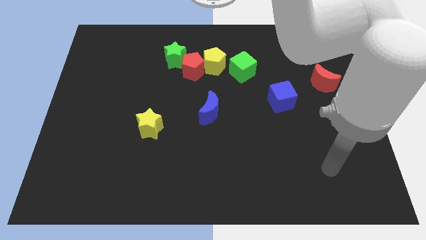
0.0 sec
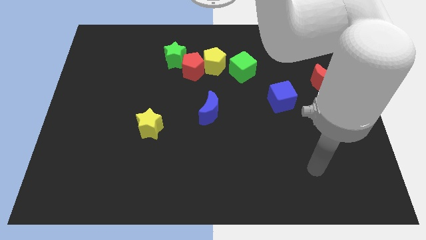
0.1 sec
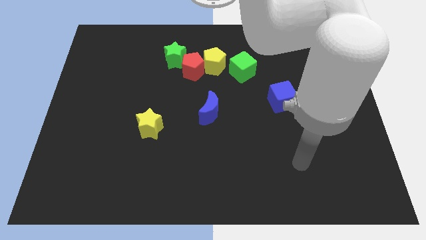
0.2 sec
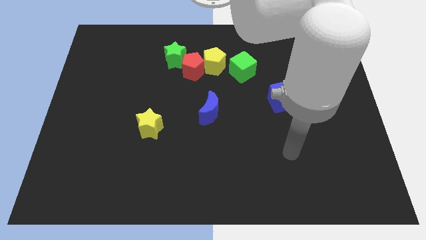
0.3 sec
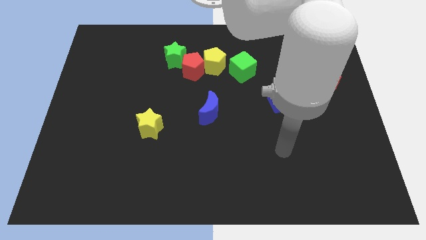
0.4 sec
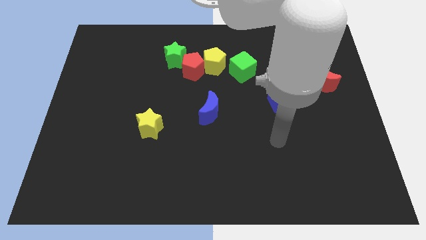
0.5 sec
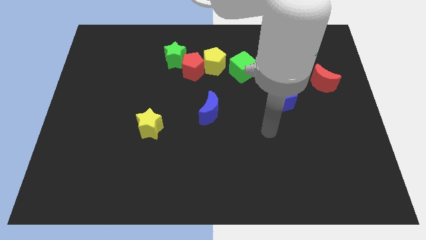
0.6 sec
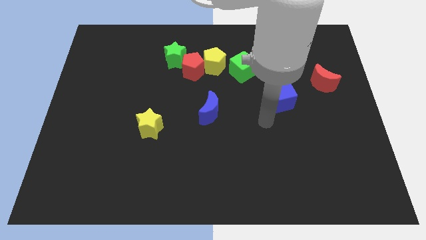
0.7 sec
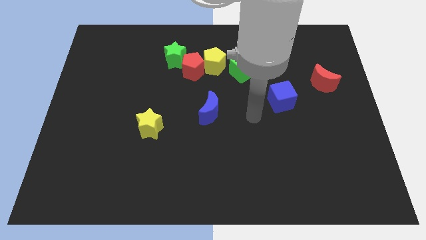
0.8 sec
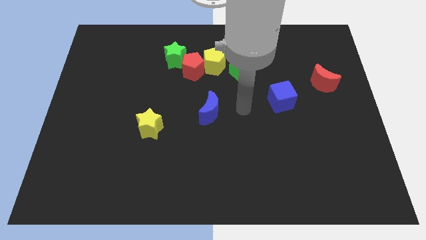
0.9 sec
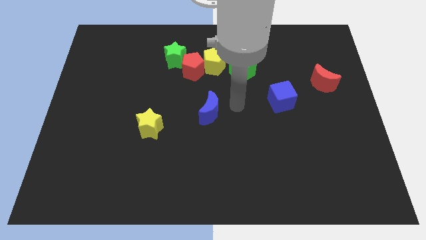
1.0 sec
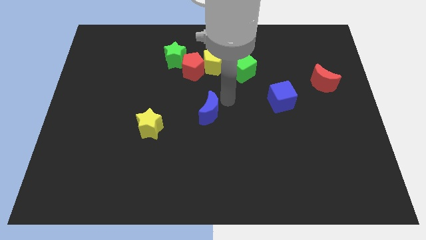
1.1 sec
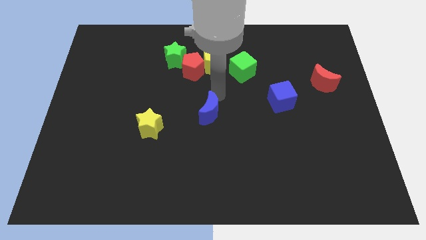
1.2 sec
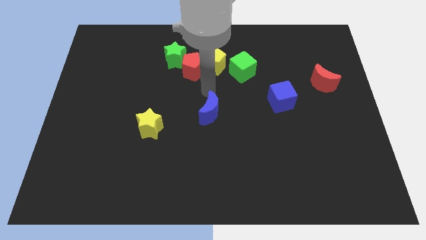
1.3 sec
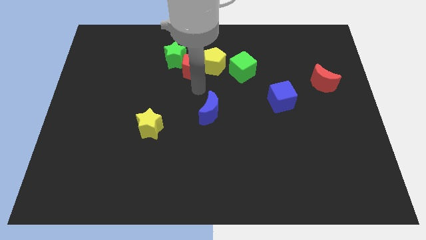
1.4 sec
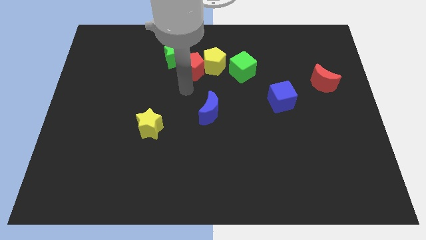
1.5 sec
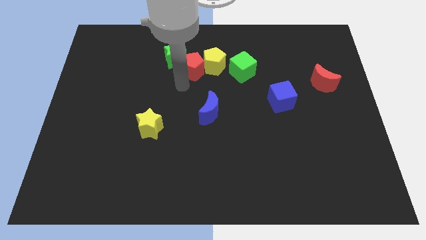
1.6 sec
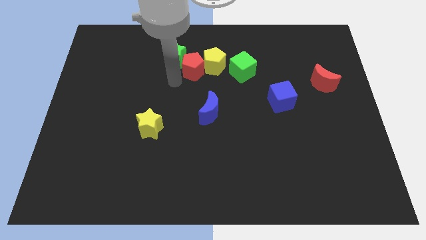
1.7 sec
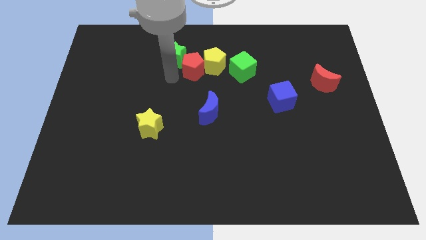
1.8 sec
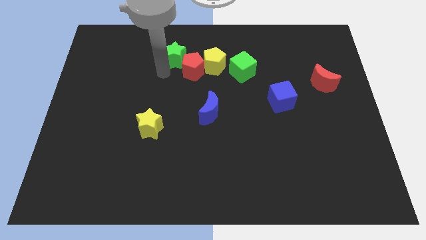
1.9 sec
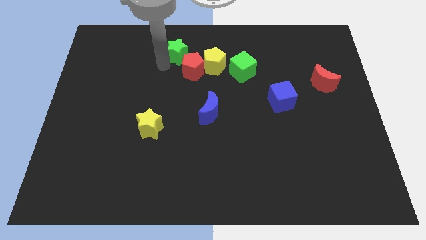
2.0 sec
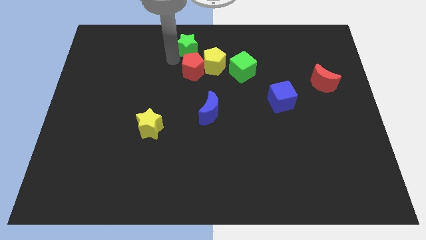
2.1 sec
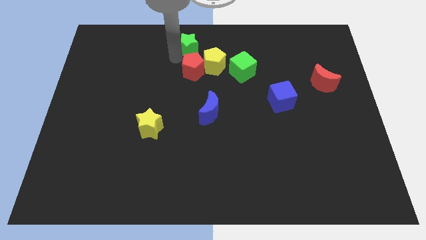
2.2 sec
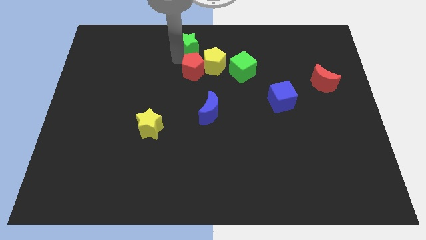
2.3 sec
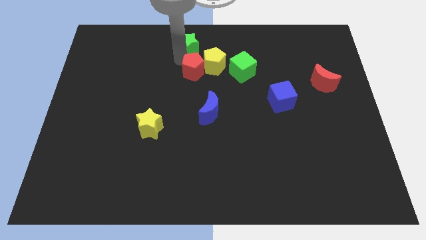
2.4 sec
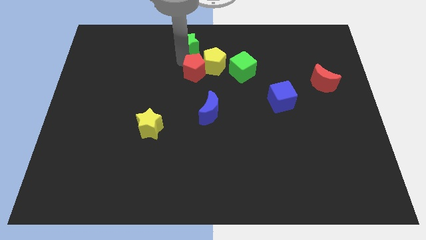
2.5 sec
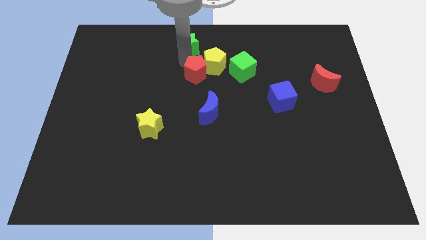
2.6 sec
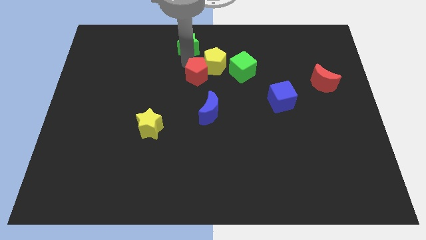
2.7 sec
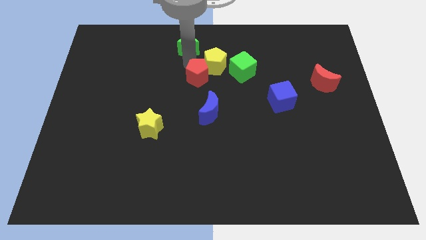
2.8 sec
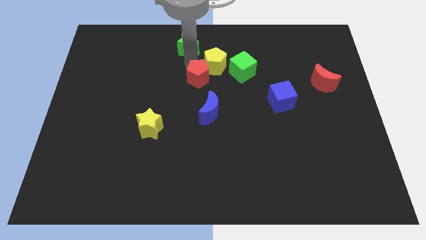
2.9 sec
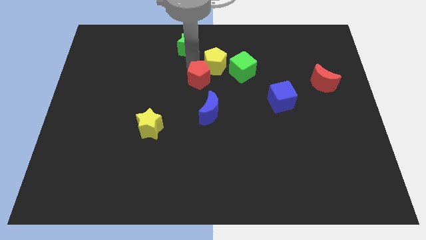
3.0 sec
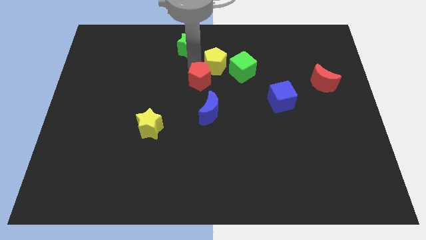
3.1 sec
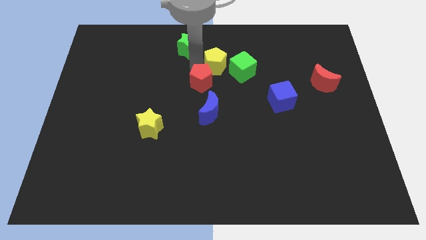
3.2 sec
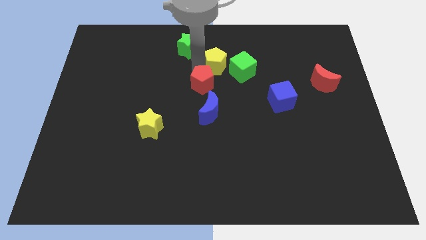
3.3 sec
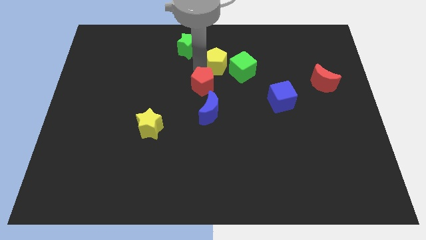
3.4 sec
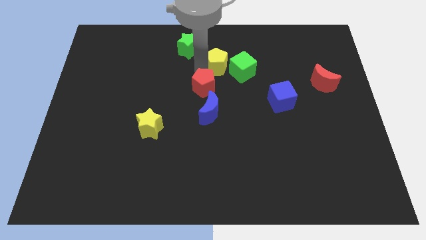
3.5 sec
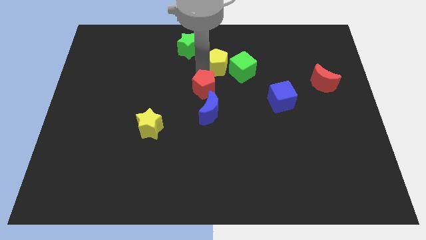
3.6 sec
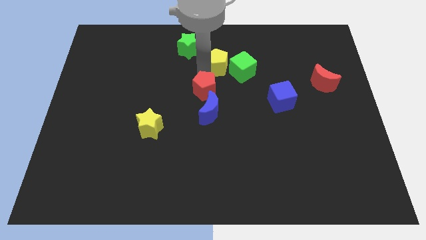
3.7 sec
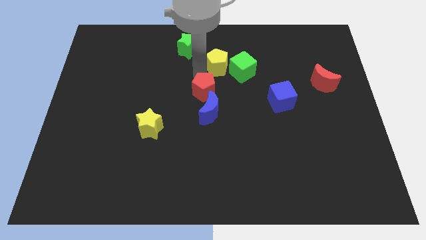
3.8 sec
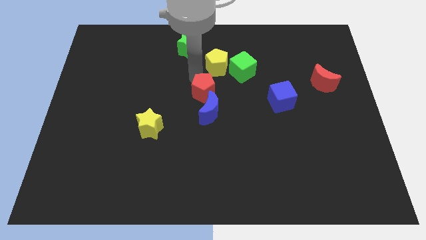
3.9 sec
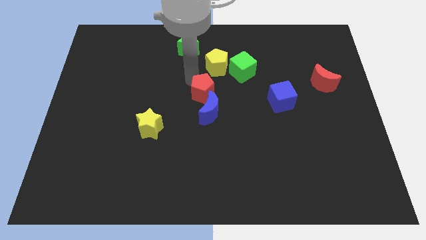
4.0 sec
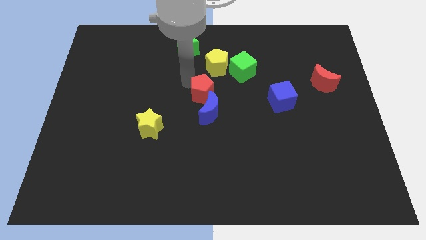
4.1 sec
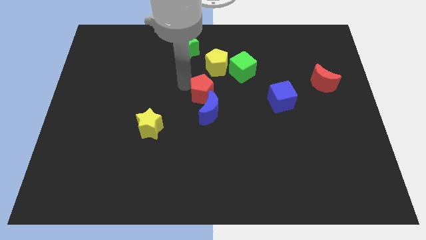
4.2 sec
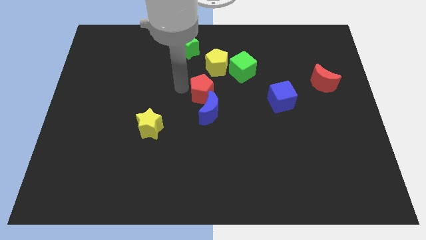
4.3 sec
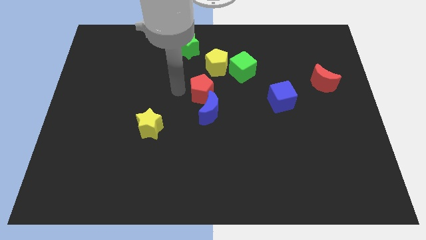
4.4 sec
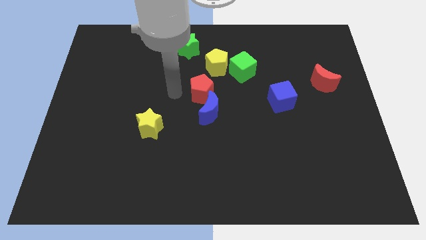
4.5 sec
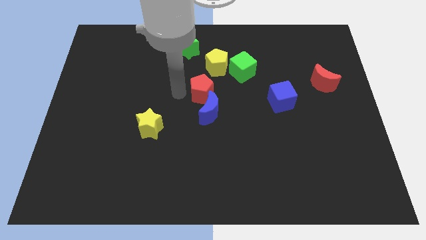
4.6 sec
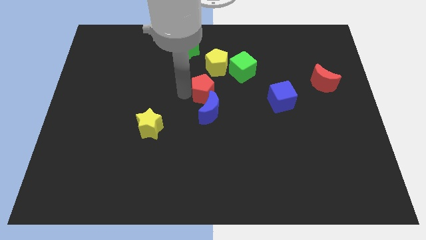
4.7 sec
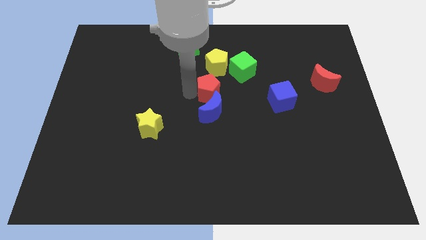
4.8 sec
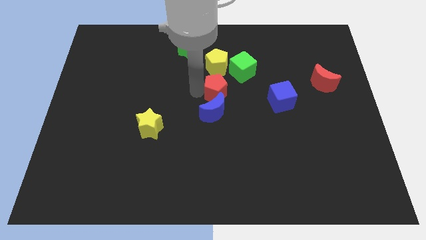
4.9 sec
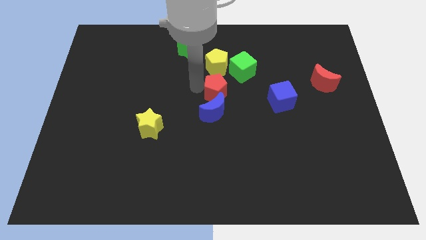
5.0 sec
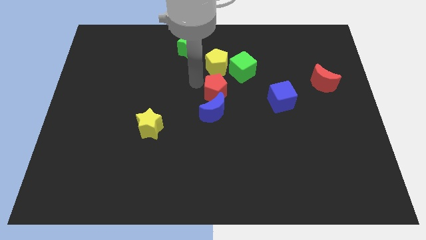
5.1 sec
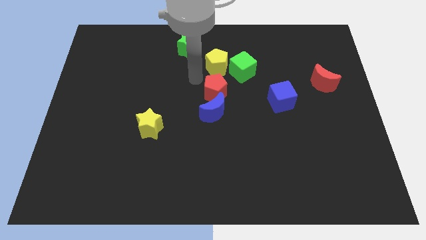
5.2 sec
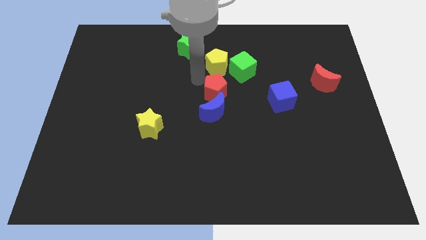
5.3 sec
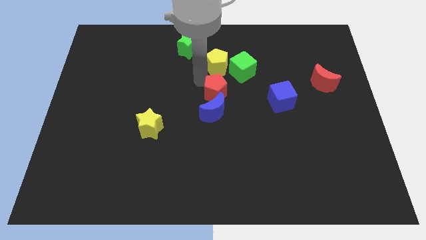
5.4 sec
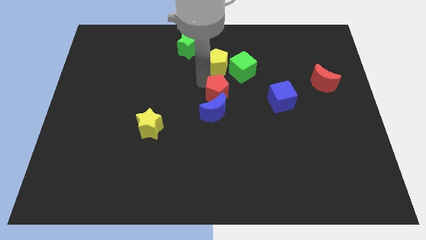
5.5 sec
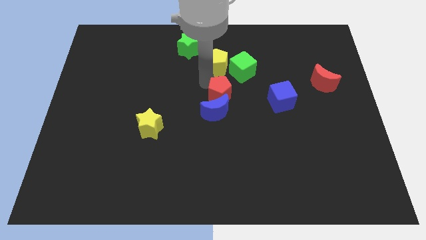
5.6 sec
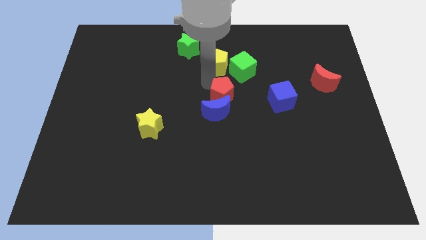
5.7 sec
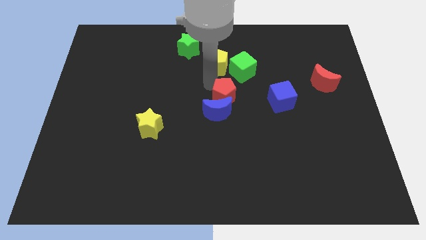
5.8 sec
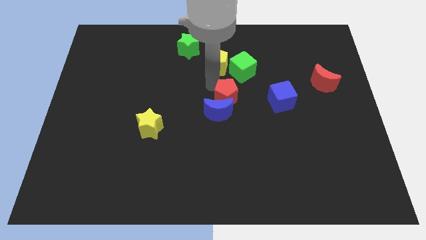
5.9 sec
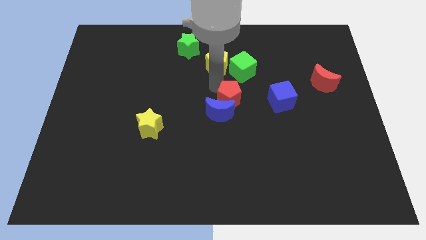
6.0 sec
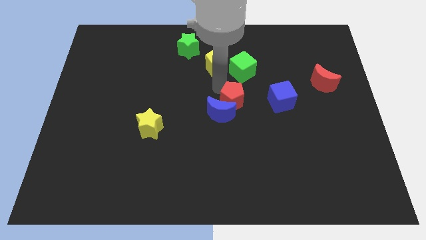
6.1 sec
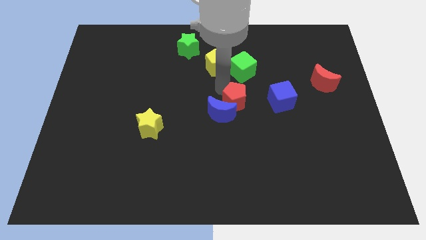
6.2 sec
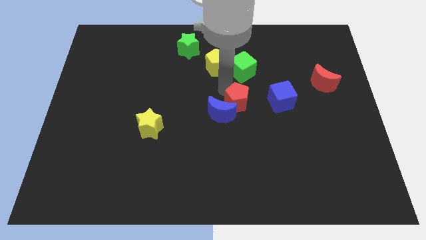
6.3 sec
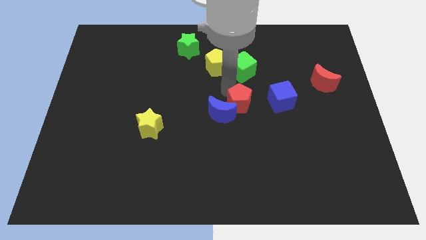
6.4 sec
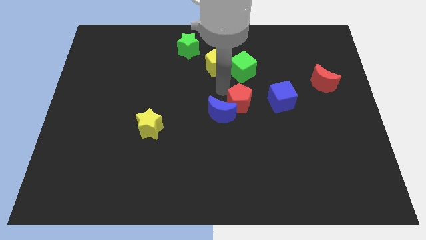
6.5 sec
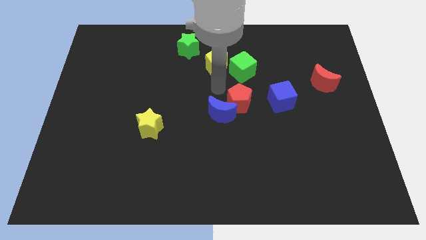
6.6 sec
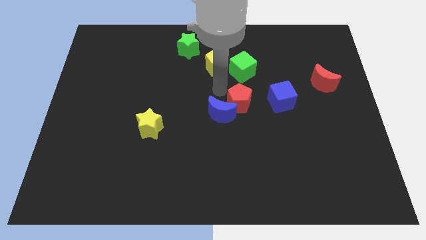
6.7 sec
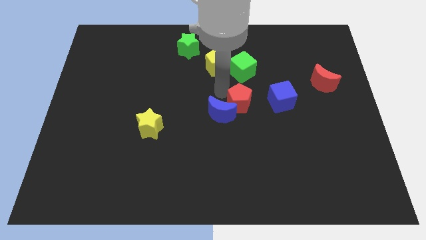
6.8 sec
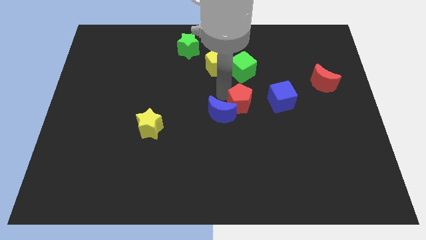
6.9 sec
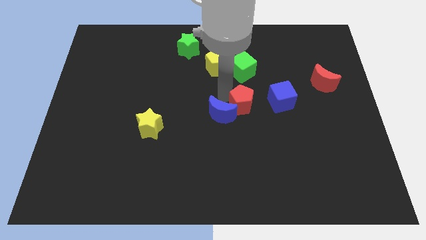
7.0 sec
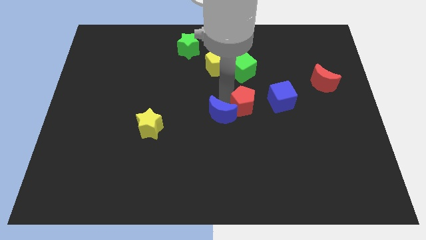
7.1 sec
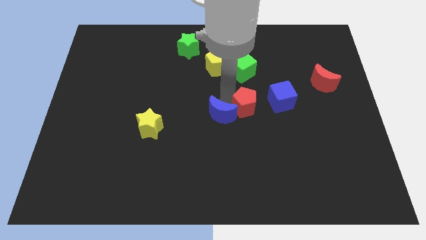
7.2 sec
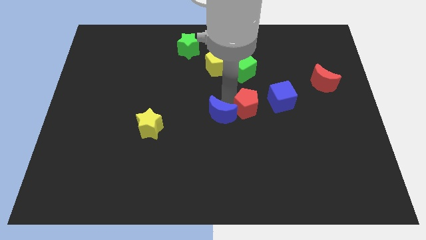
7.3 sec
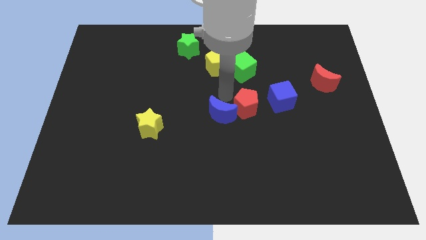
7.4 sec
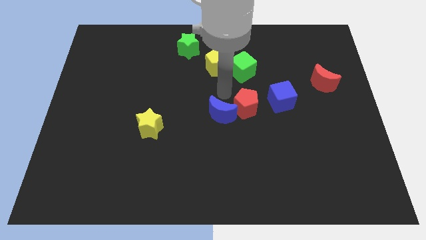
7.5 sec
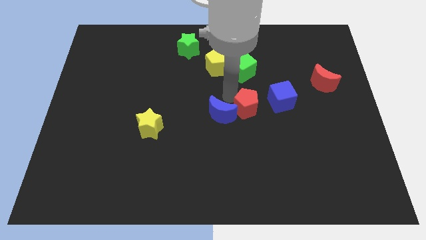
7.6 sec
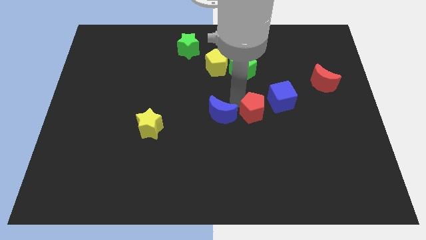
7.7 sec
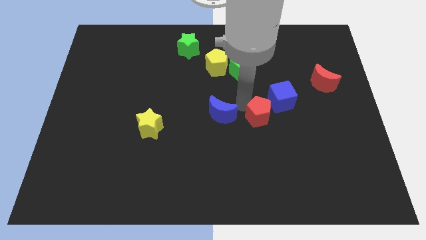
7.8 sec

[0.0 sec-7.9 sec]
push the red pentagon diagonally down and to the right

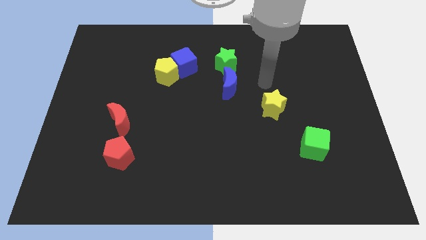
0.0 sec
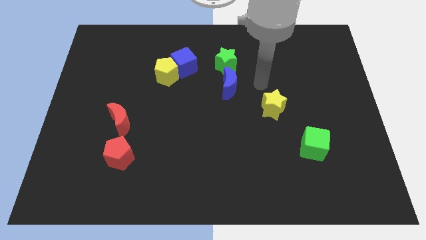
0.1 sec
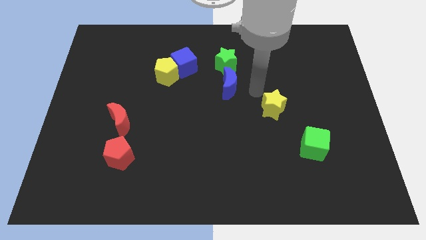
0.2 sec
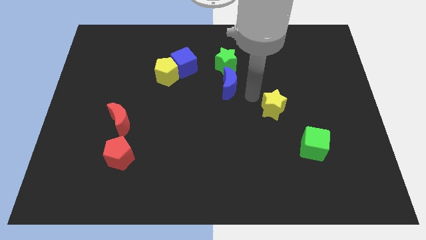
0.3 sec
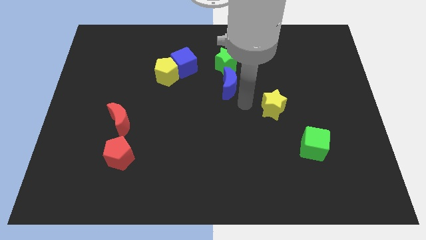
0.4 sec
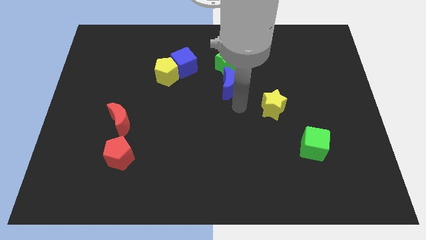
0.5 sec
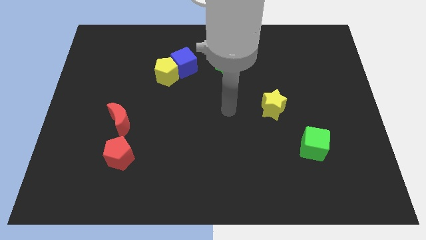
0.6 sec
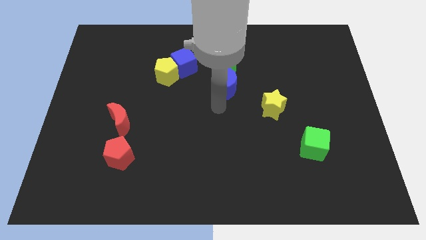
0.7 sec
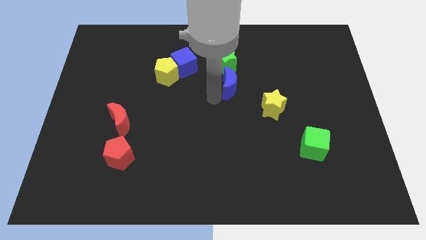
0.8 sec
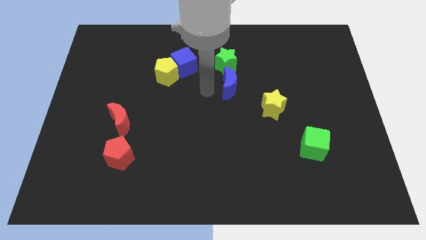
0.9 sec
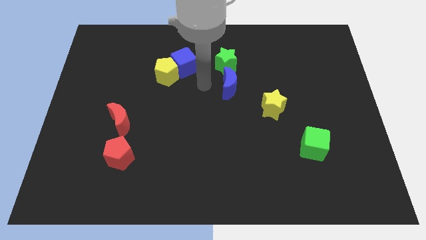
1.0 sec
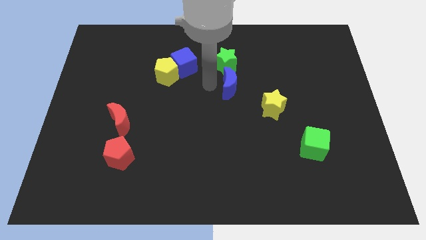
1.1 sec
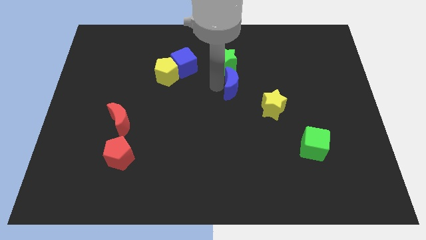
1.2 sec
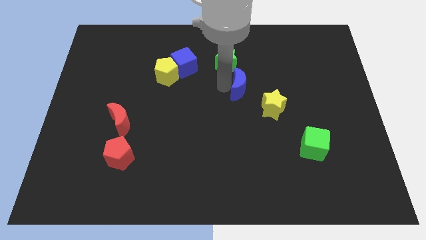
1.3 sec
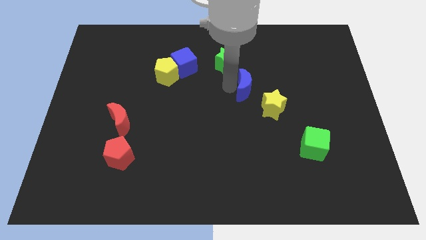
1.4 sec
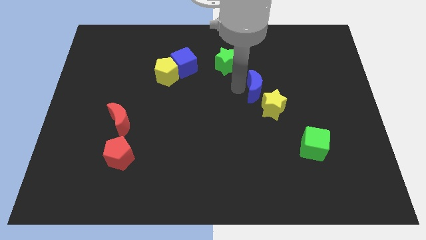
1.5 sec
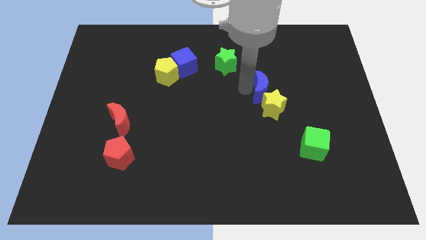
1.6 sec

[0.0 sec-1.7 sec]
move the blue moon to the right a bit
